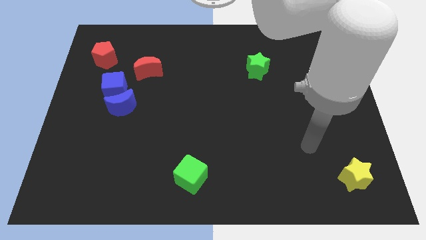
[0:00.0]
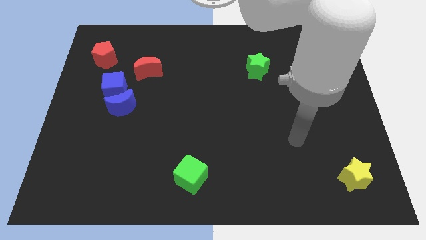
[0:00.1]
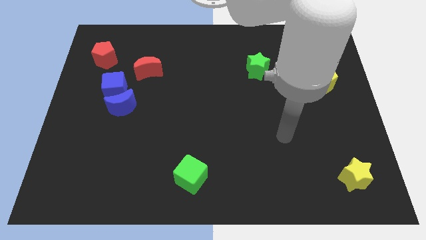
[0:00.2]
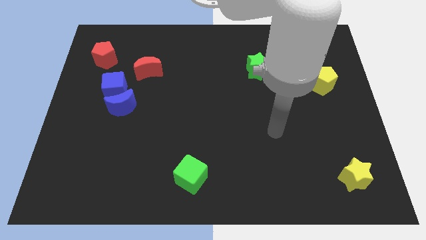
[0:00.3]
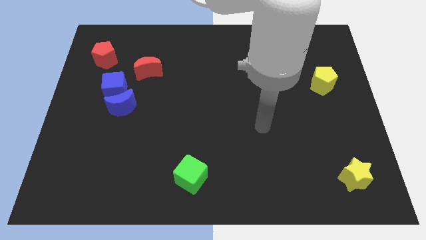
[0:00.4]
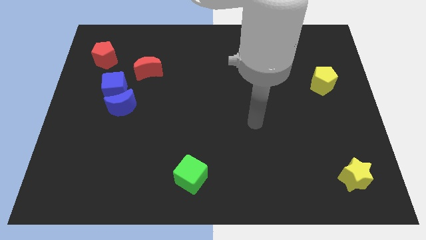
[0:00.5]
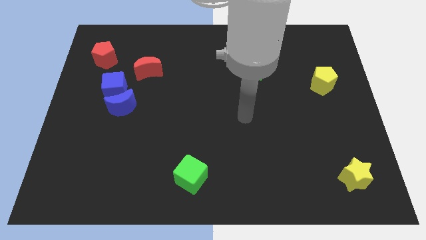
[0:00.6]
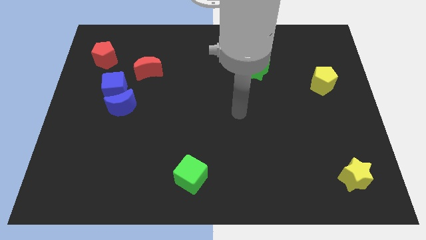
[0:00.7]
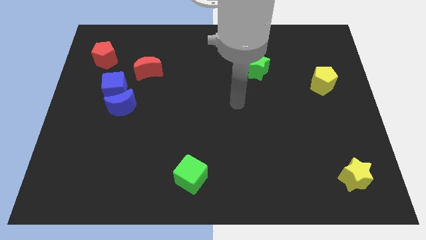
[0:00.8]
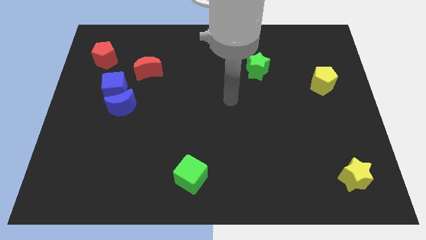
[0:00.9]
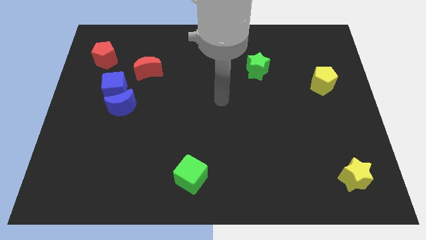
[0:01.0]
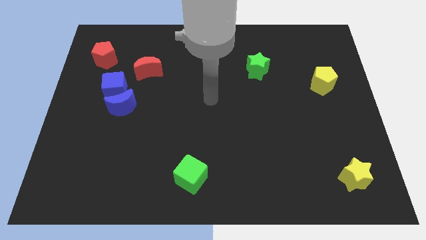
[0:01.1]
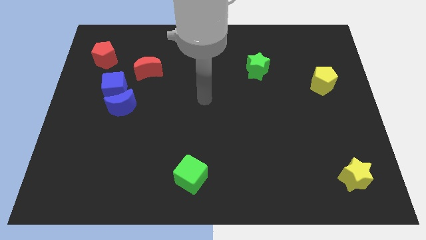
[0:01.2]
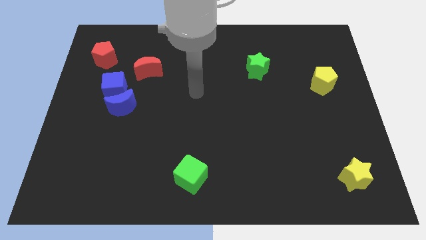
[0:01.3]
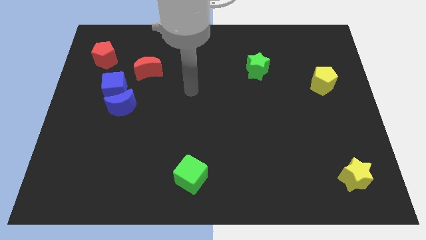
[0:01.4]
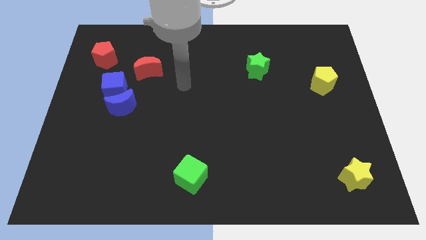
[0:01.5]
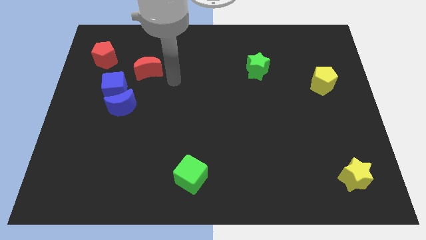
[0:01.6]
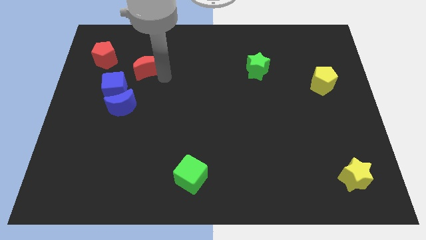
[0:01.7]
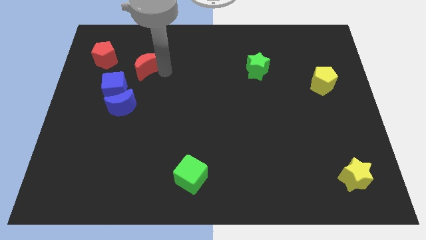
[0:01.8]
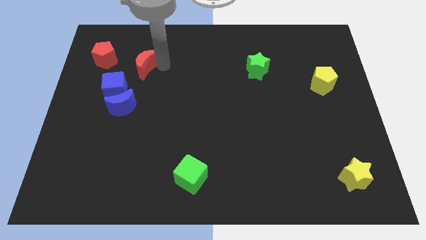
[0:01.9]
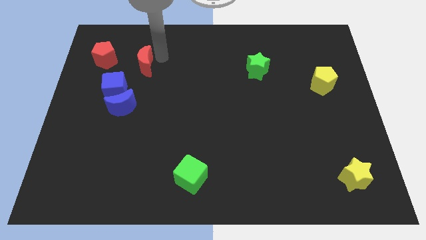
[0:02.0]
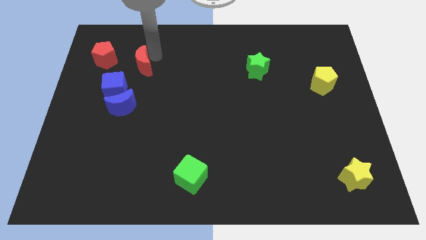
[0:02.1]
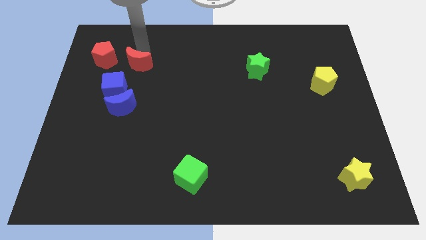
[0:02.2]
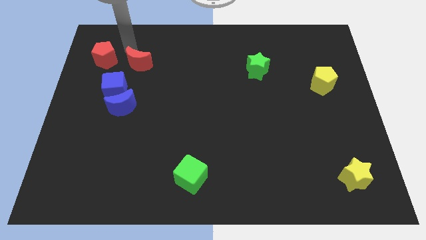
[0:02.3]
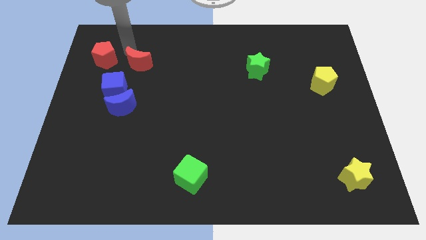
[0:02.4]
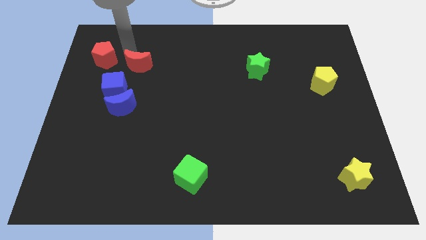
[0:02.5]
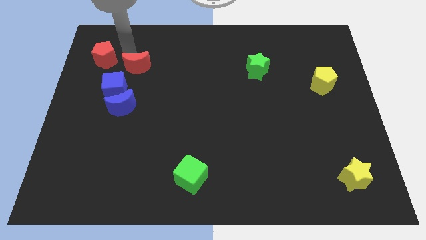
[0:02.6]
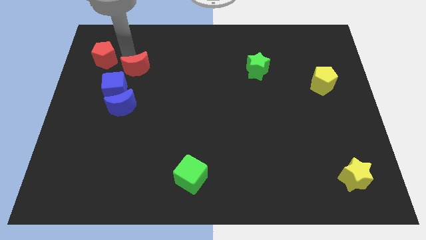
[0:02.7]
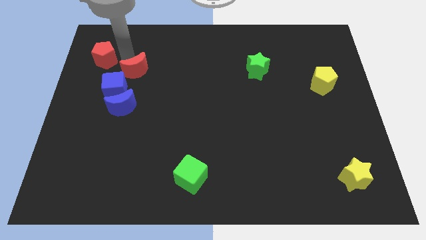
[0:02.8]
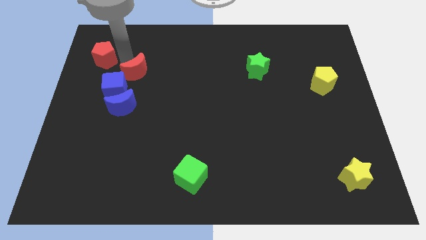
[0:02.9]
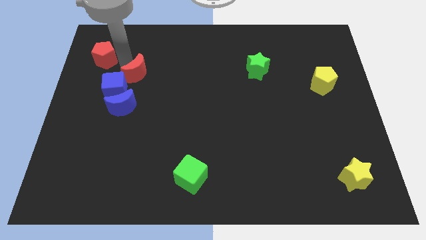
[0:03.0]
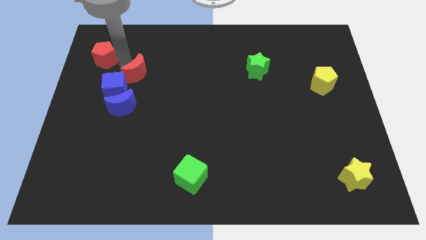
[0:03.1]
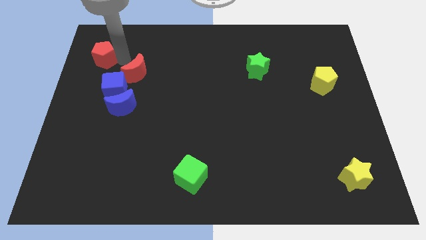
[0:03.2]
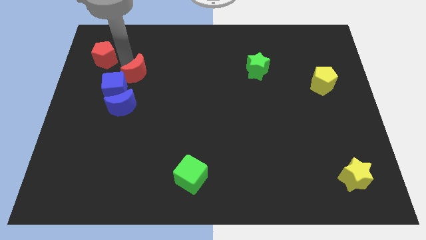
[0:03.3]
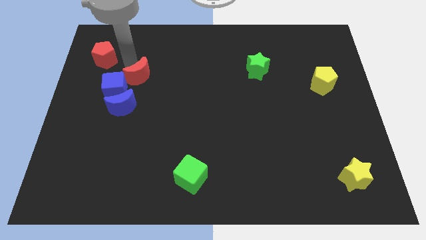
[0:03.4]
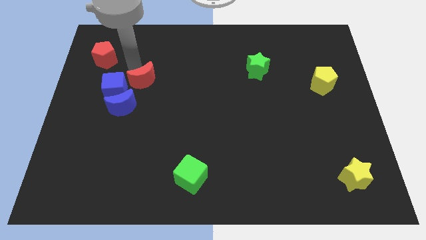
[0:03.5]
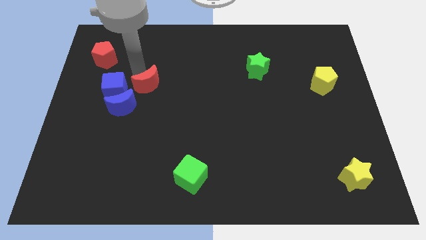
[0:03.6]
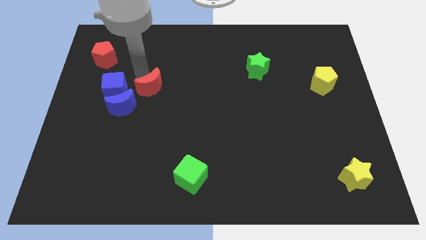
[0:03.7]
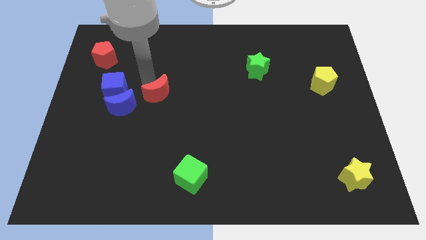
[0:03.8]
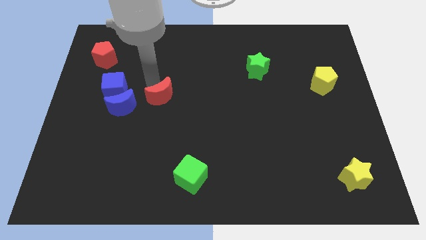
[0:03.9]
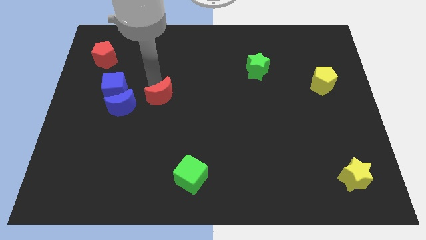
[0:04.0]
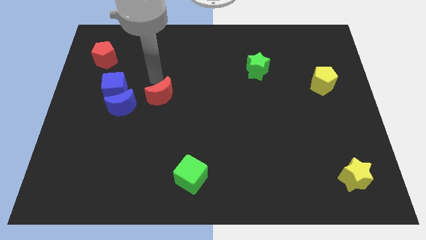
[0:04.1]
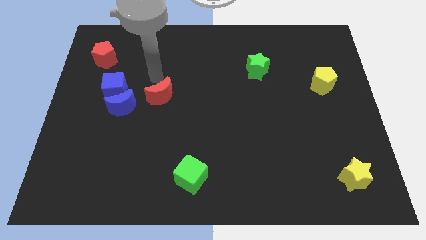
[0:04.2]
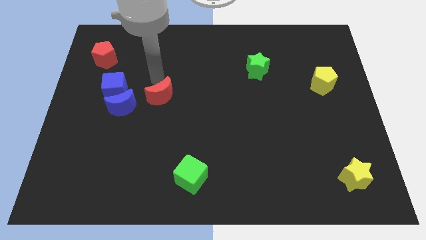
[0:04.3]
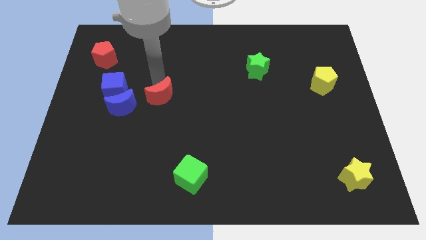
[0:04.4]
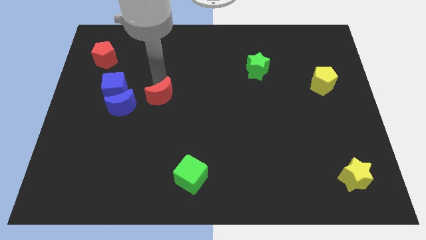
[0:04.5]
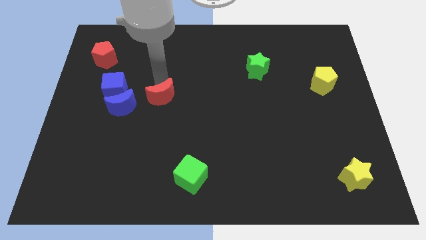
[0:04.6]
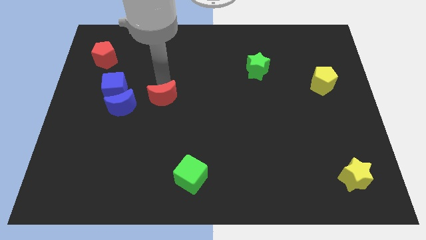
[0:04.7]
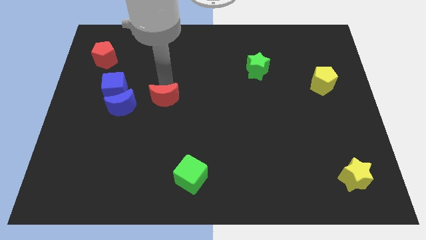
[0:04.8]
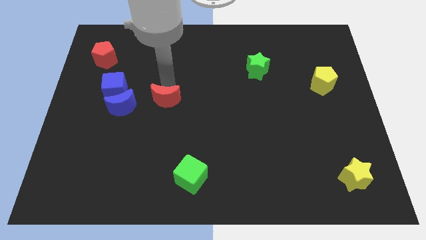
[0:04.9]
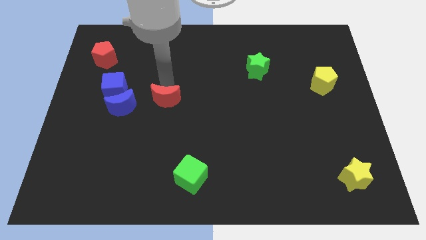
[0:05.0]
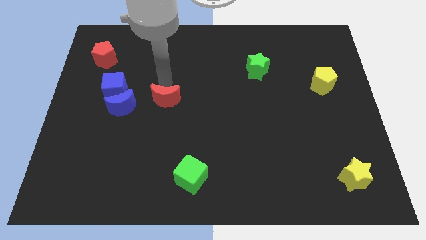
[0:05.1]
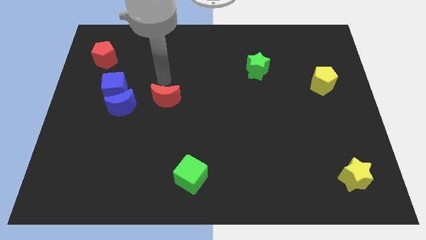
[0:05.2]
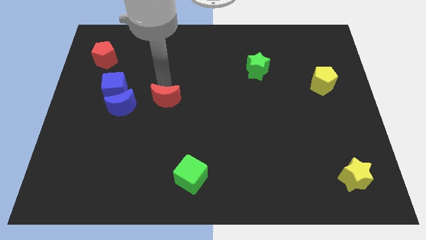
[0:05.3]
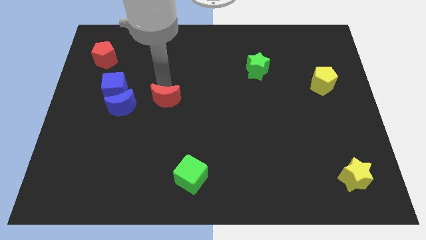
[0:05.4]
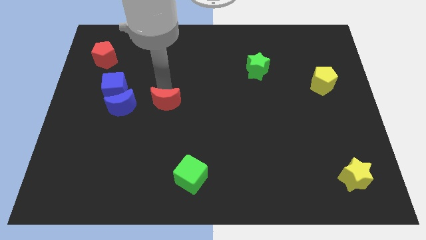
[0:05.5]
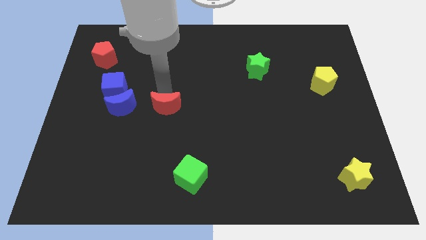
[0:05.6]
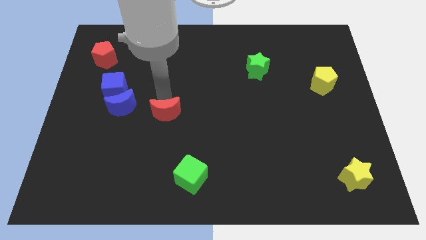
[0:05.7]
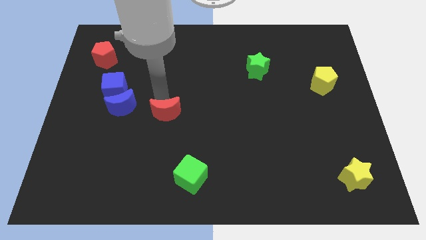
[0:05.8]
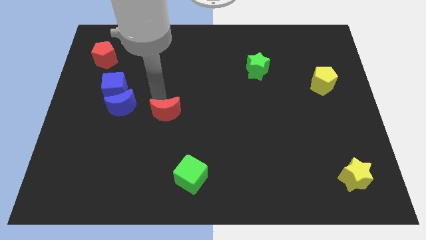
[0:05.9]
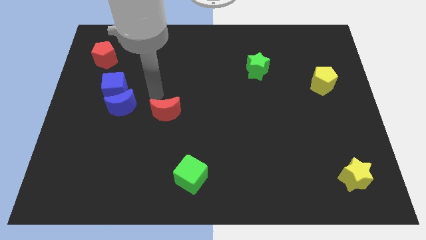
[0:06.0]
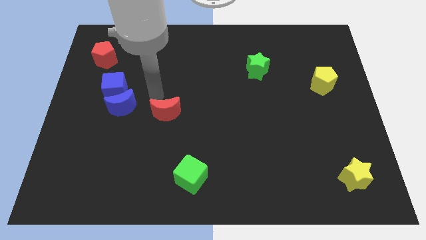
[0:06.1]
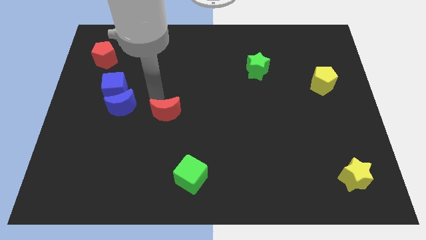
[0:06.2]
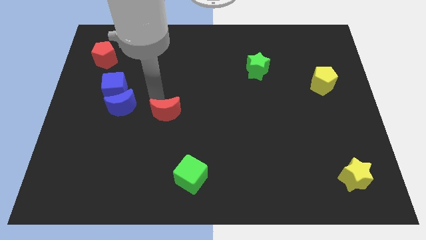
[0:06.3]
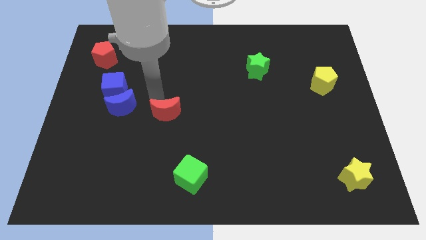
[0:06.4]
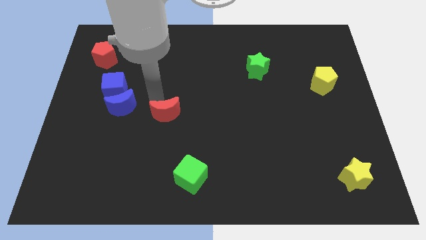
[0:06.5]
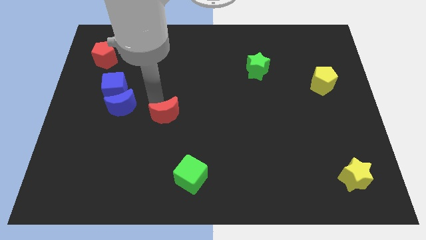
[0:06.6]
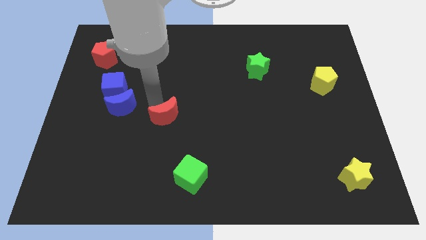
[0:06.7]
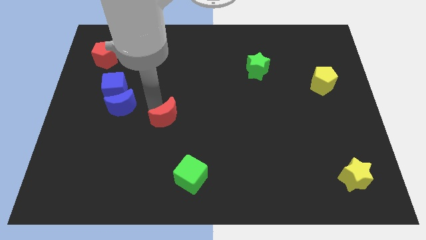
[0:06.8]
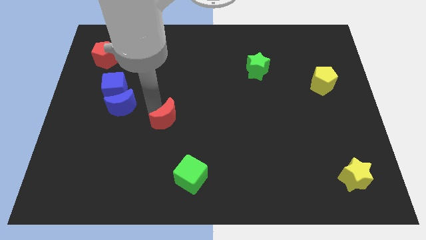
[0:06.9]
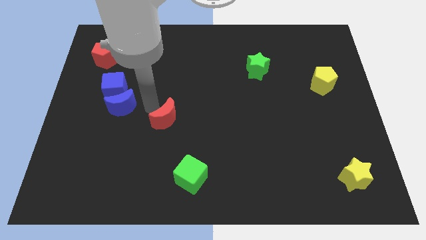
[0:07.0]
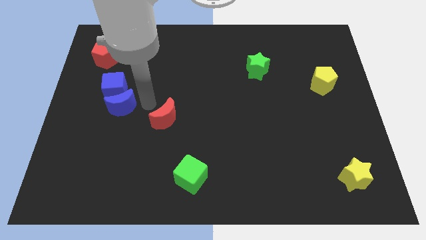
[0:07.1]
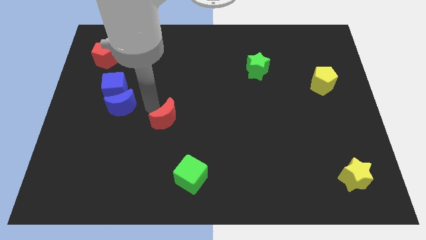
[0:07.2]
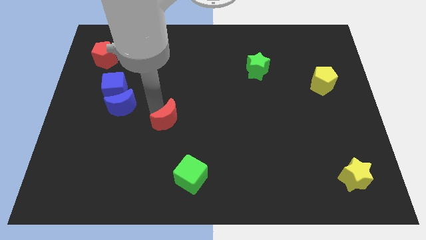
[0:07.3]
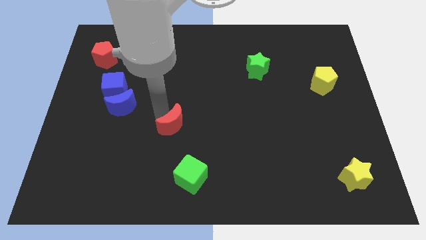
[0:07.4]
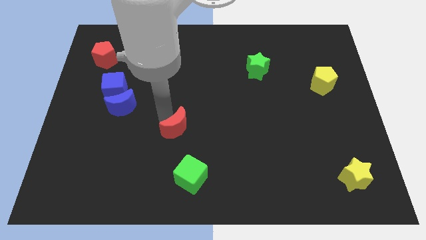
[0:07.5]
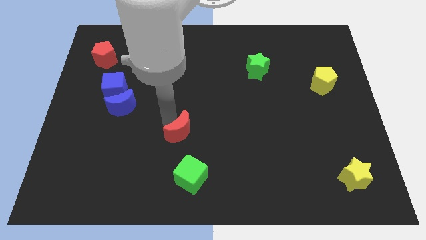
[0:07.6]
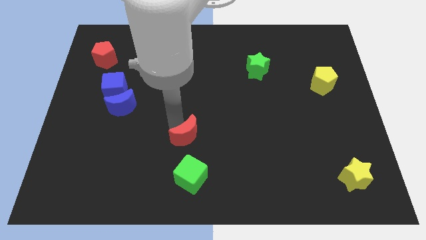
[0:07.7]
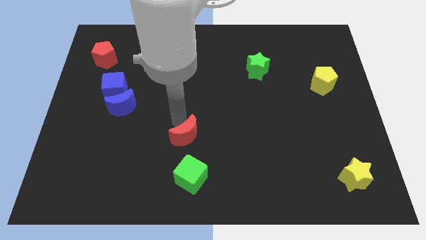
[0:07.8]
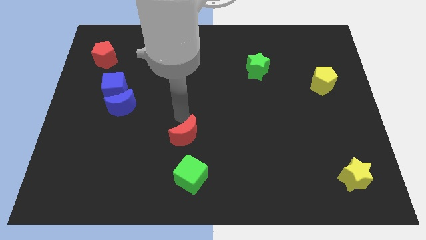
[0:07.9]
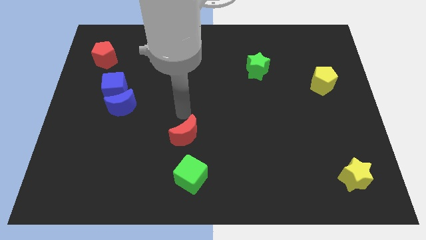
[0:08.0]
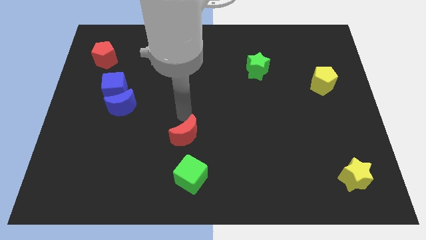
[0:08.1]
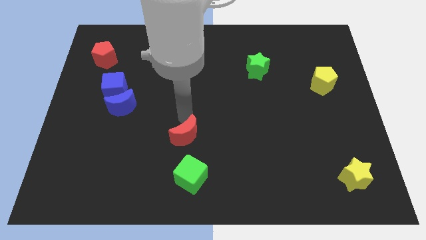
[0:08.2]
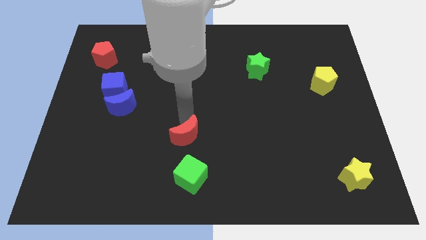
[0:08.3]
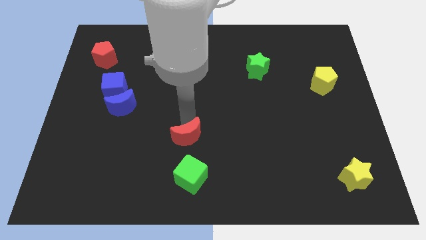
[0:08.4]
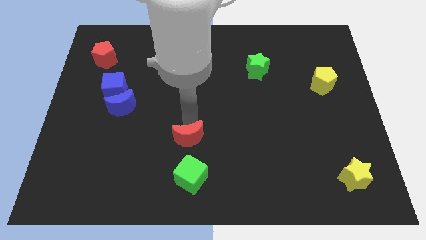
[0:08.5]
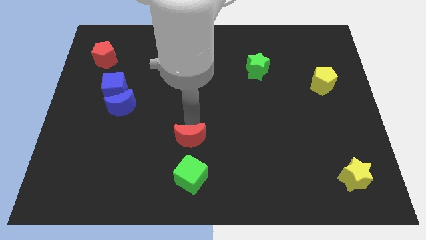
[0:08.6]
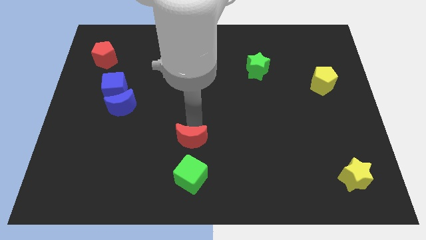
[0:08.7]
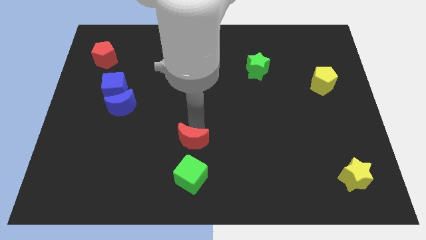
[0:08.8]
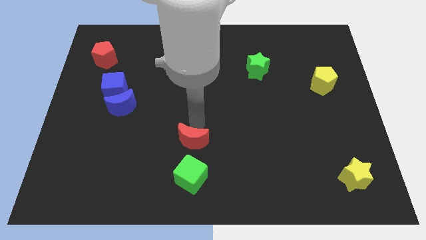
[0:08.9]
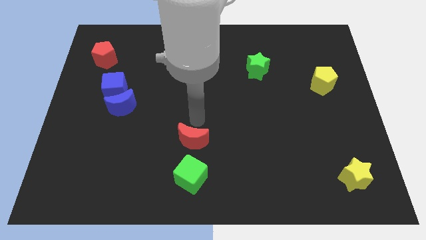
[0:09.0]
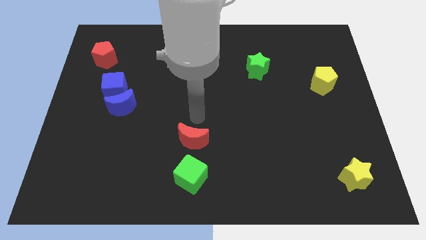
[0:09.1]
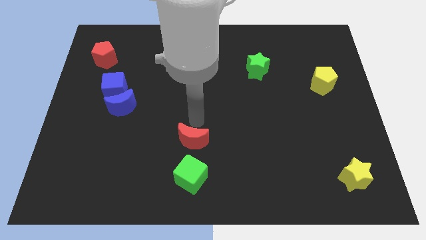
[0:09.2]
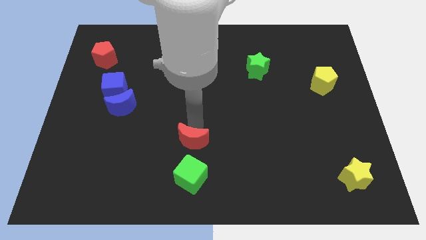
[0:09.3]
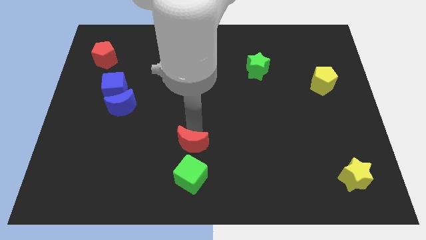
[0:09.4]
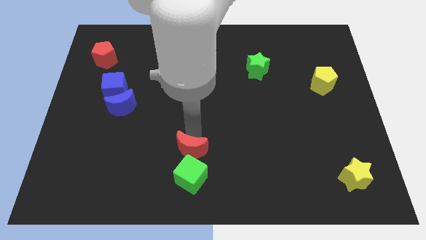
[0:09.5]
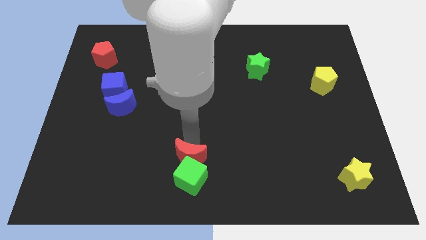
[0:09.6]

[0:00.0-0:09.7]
push the red moon towards the green cube
